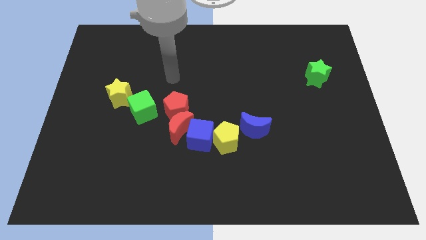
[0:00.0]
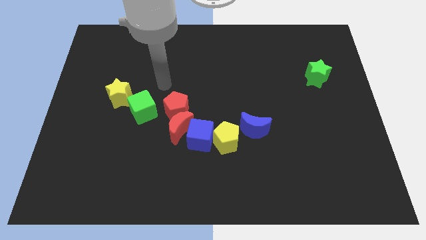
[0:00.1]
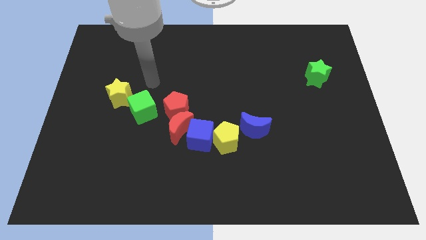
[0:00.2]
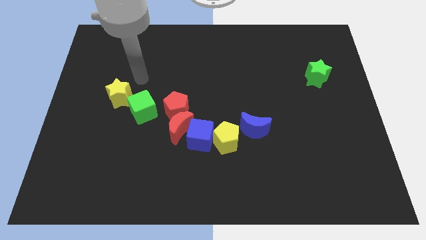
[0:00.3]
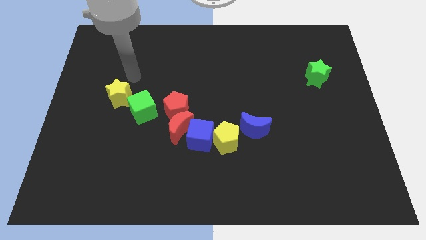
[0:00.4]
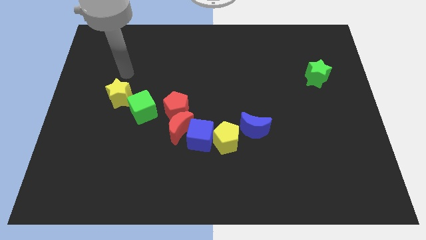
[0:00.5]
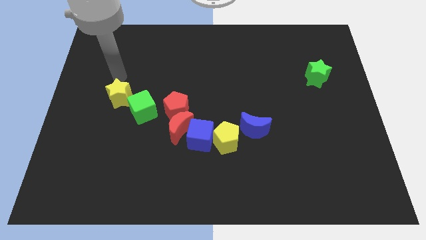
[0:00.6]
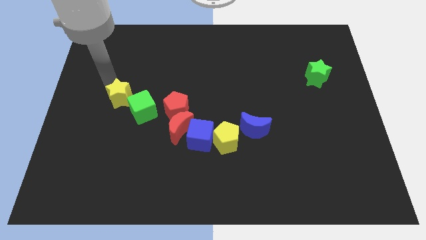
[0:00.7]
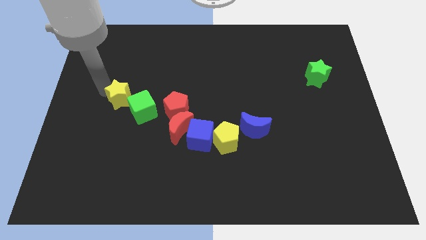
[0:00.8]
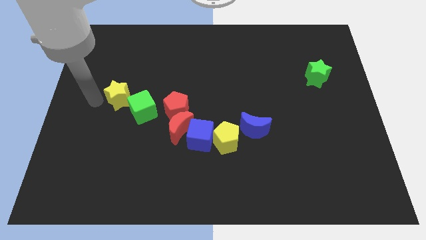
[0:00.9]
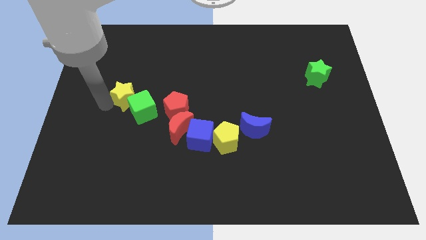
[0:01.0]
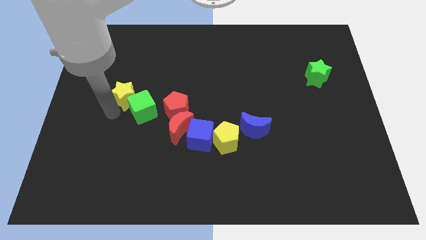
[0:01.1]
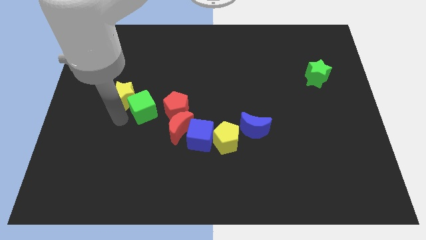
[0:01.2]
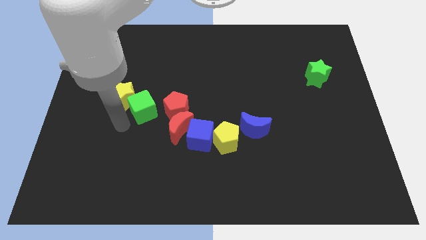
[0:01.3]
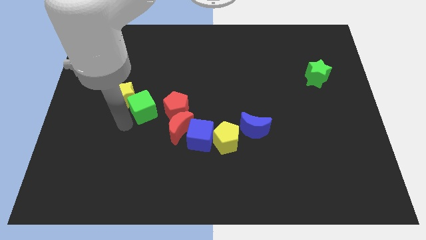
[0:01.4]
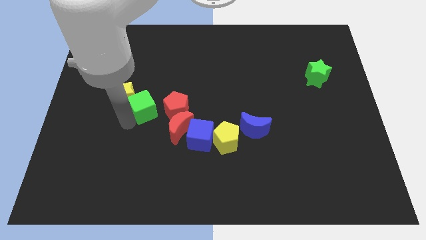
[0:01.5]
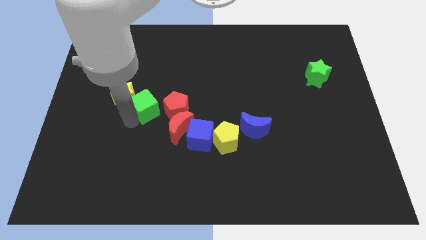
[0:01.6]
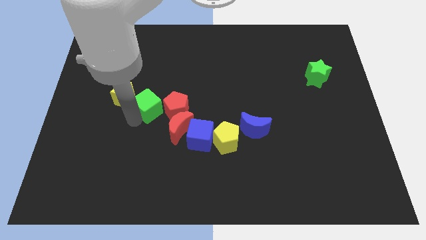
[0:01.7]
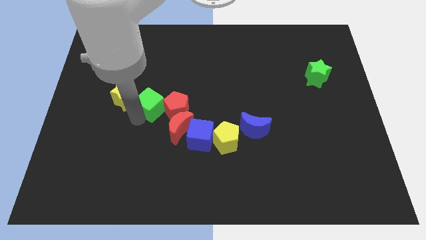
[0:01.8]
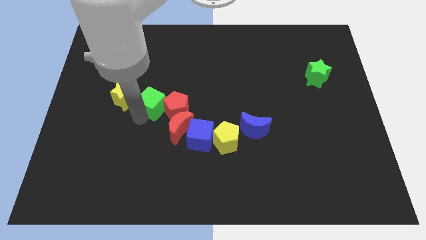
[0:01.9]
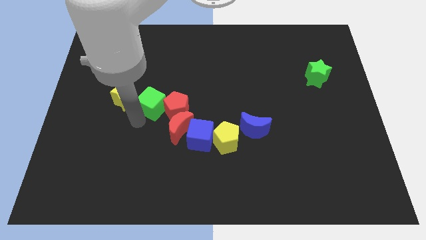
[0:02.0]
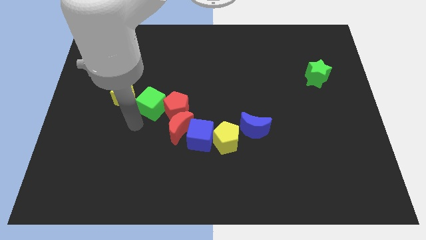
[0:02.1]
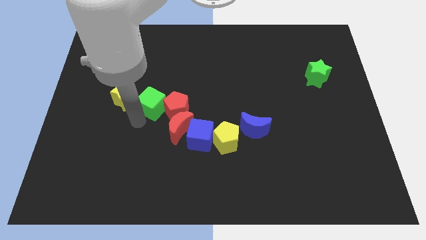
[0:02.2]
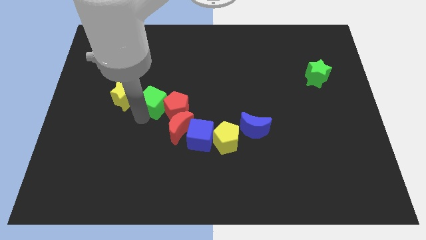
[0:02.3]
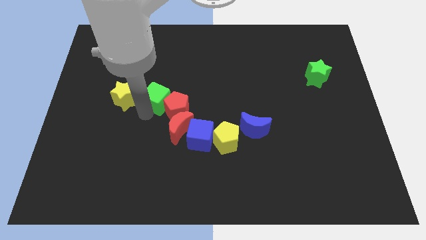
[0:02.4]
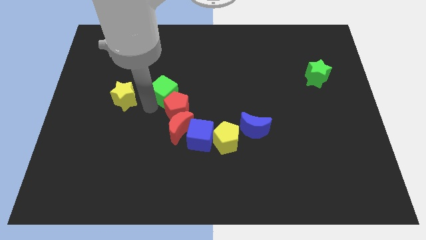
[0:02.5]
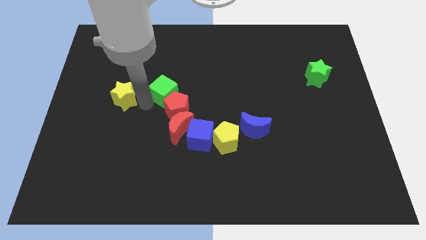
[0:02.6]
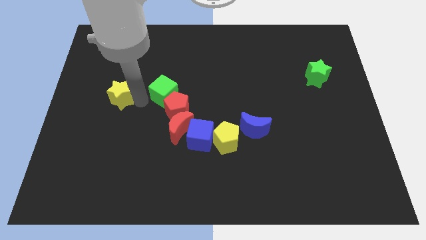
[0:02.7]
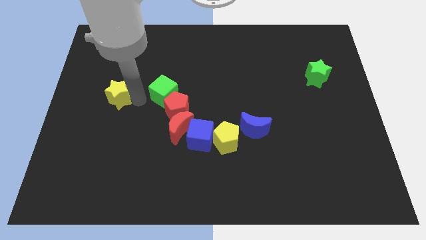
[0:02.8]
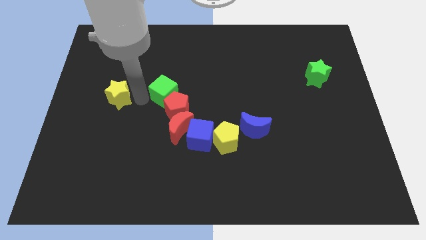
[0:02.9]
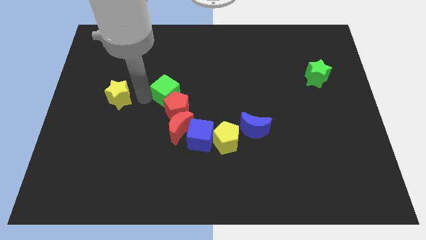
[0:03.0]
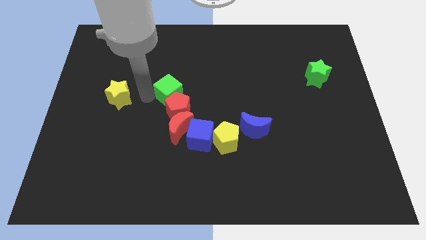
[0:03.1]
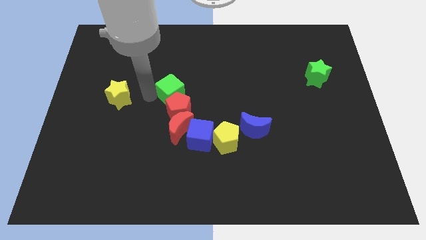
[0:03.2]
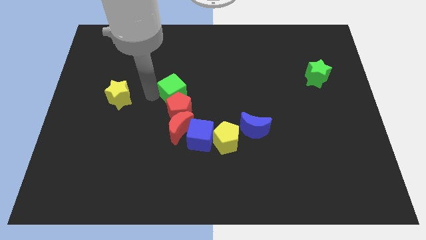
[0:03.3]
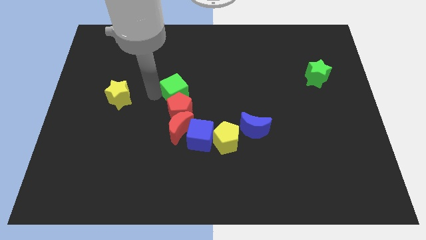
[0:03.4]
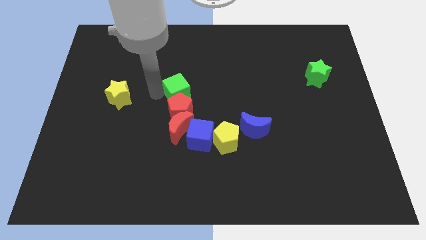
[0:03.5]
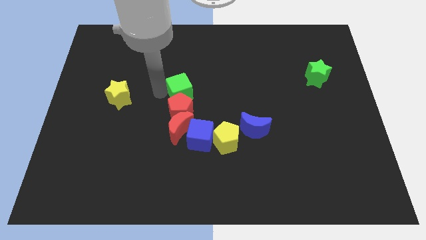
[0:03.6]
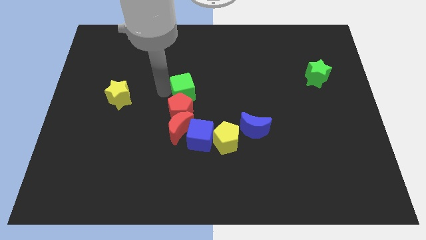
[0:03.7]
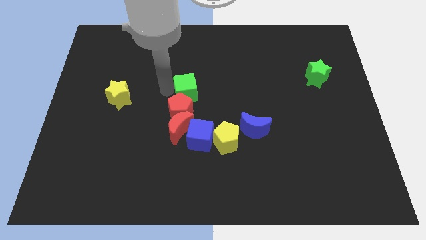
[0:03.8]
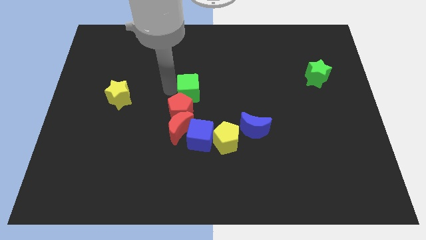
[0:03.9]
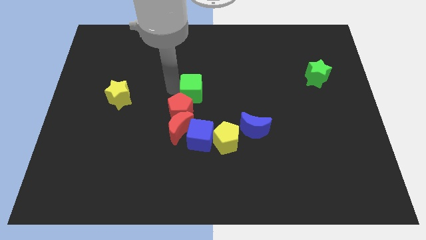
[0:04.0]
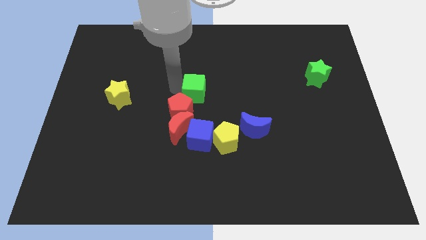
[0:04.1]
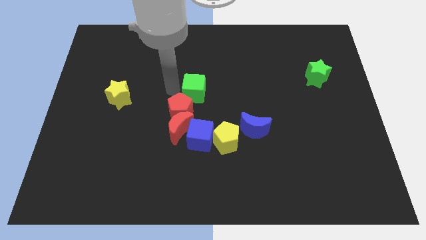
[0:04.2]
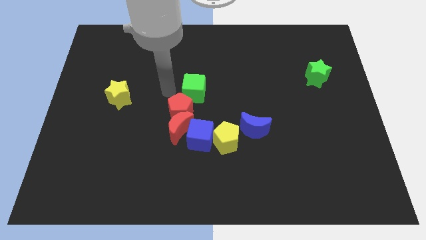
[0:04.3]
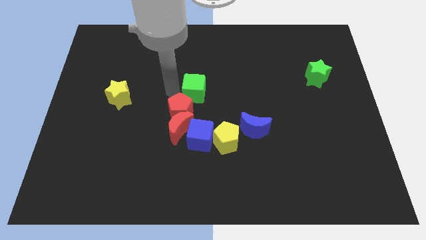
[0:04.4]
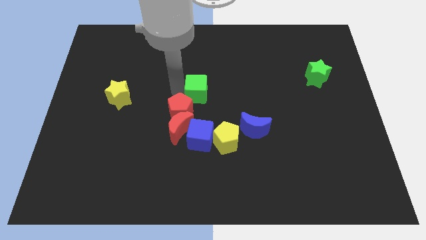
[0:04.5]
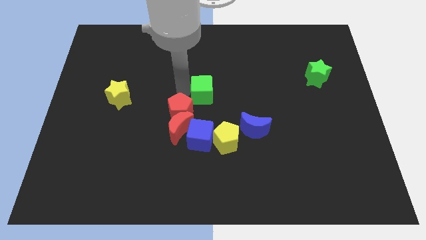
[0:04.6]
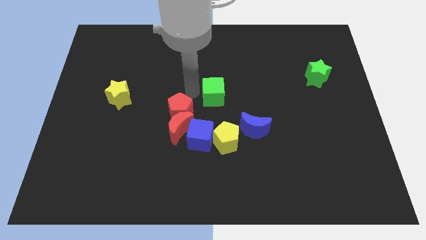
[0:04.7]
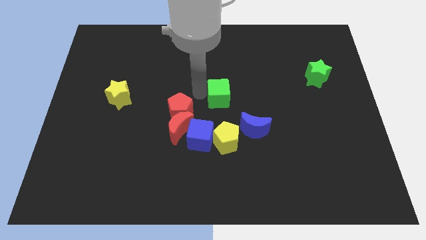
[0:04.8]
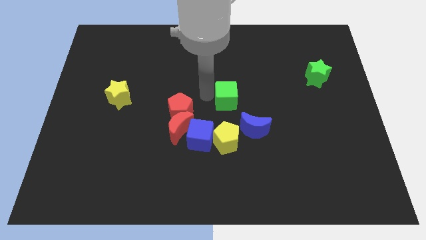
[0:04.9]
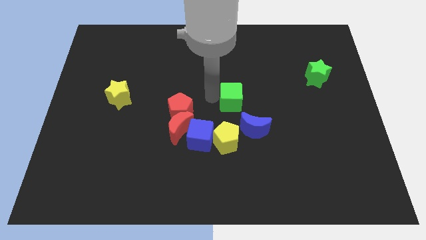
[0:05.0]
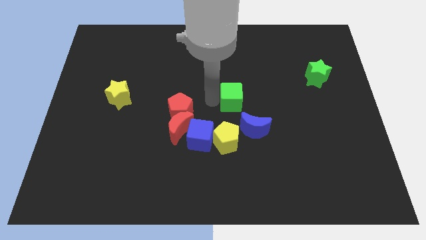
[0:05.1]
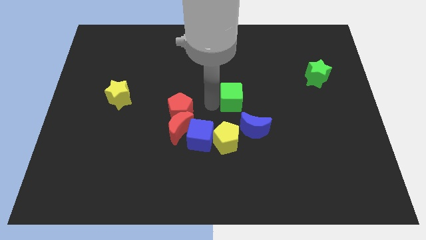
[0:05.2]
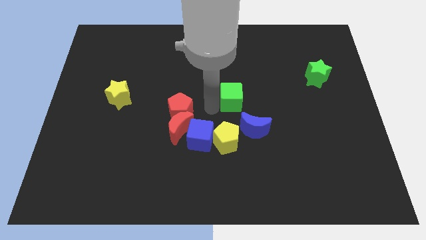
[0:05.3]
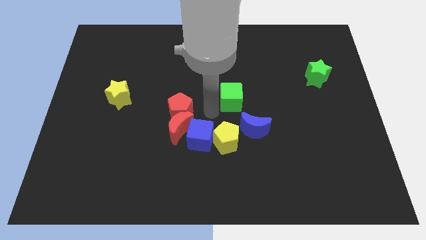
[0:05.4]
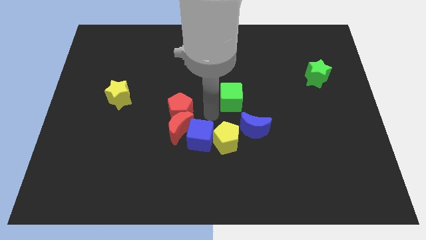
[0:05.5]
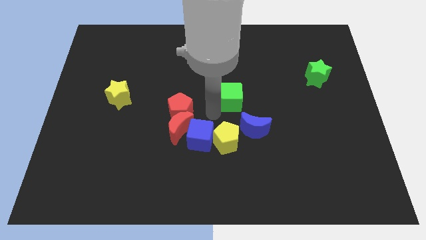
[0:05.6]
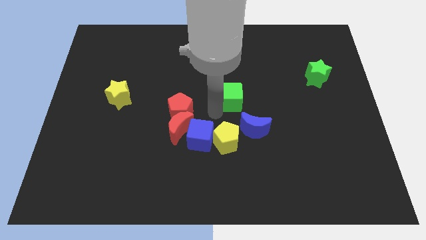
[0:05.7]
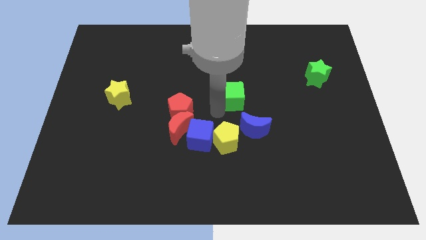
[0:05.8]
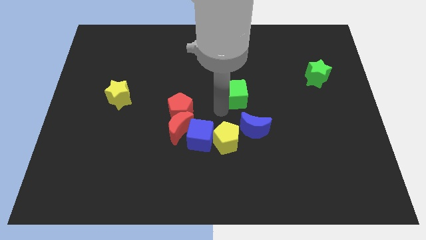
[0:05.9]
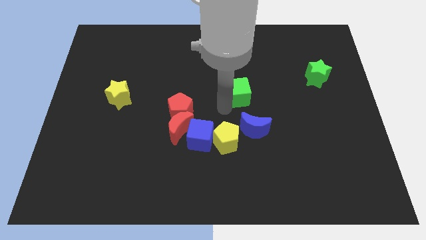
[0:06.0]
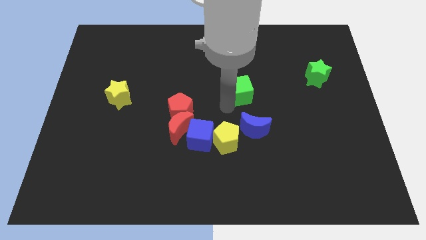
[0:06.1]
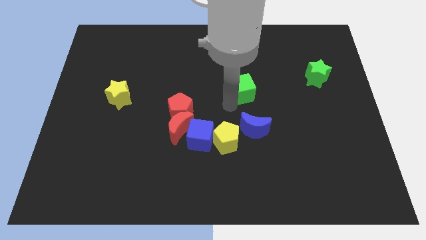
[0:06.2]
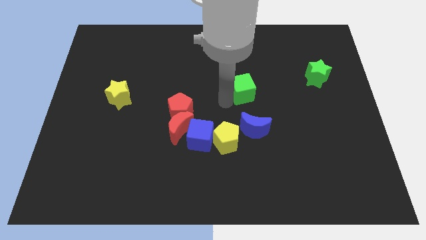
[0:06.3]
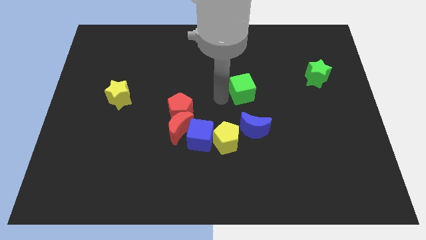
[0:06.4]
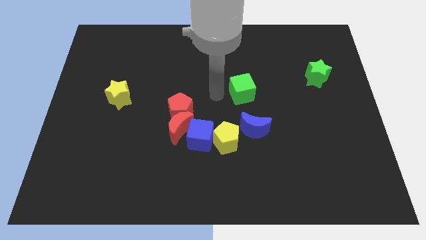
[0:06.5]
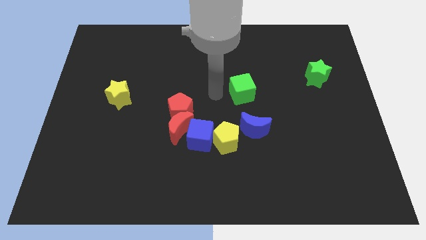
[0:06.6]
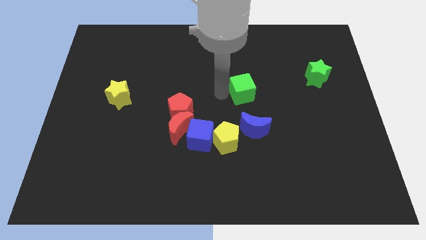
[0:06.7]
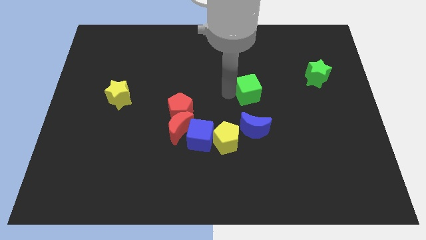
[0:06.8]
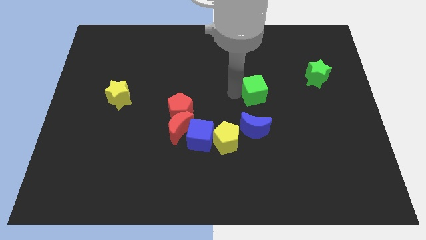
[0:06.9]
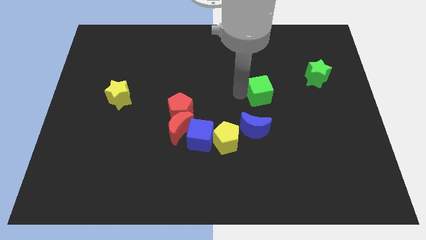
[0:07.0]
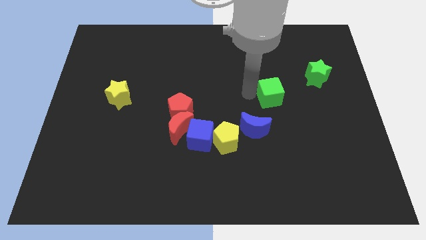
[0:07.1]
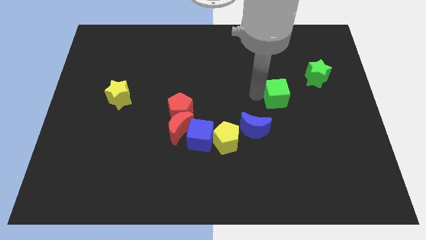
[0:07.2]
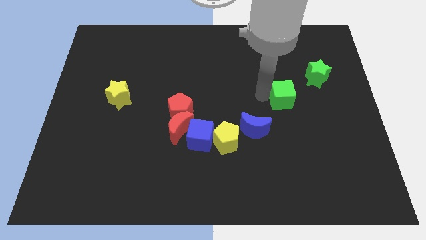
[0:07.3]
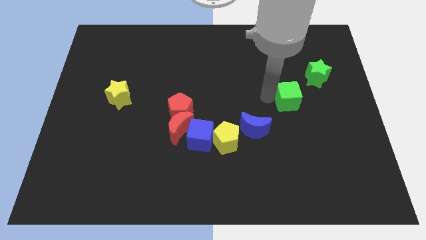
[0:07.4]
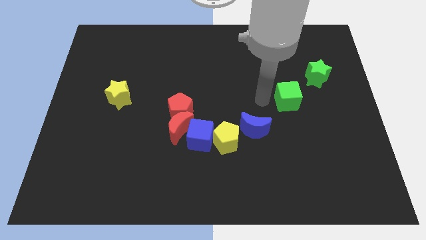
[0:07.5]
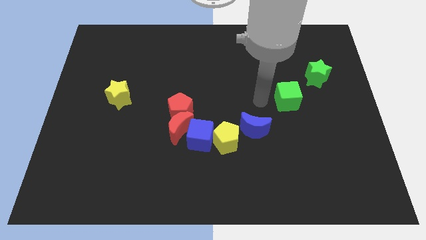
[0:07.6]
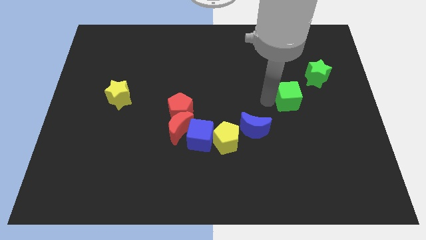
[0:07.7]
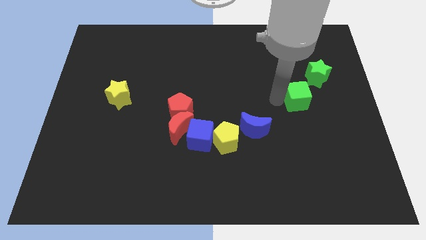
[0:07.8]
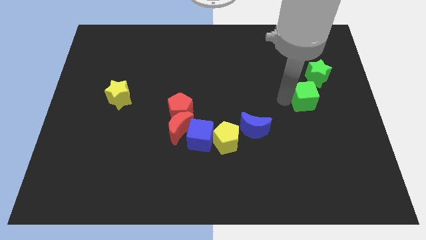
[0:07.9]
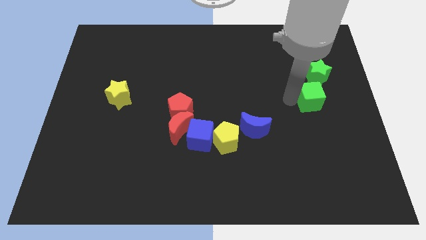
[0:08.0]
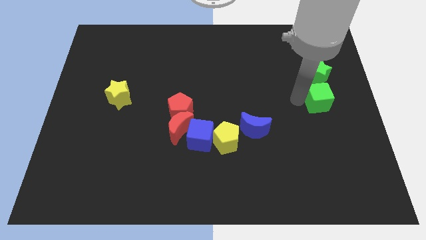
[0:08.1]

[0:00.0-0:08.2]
move the green cube to the right side of the board
